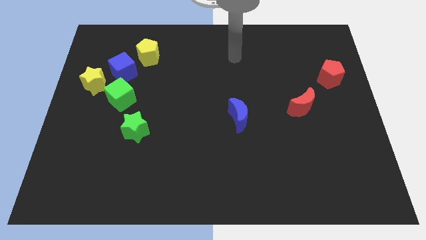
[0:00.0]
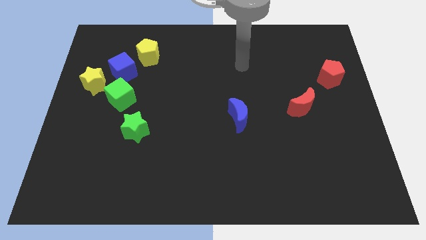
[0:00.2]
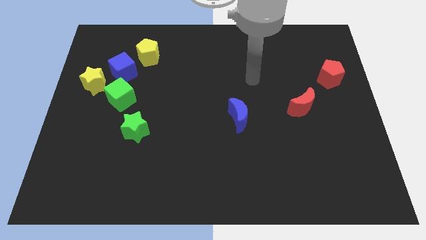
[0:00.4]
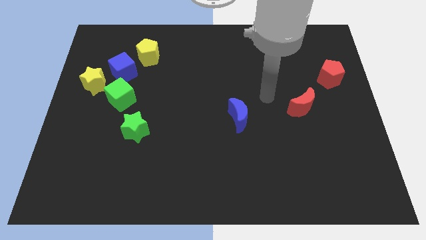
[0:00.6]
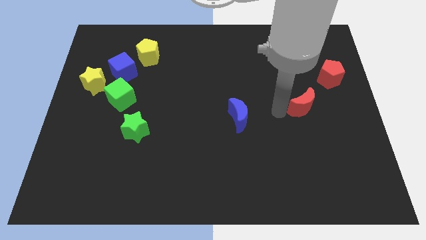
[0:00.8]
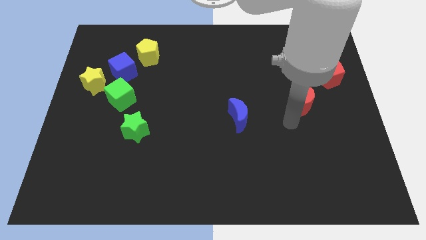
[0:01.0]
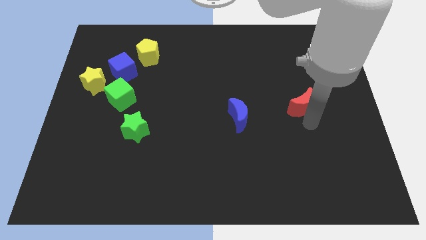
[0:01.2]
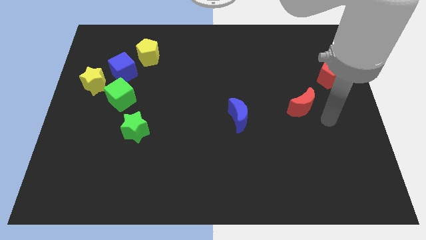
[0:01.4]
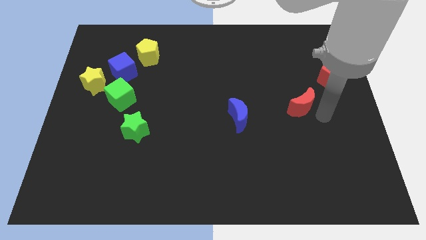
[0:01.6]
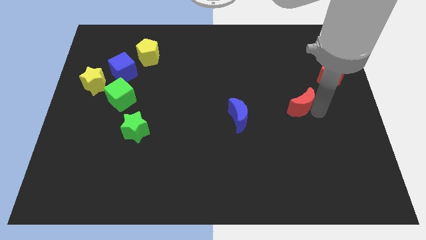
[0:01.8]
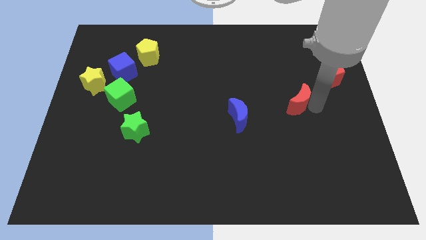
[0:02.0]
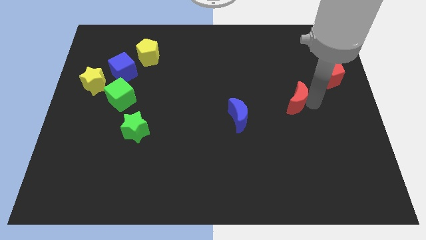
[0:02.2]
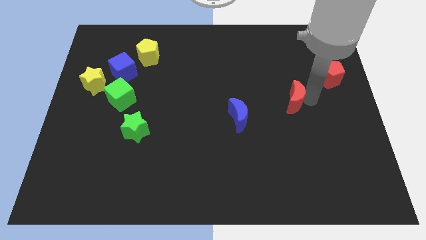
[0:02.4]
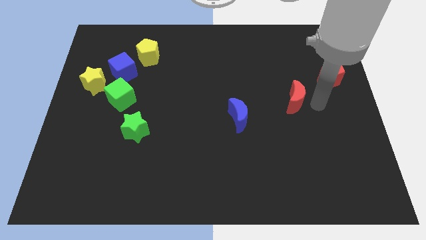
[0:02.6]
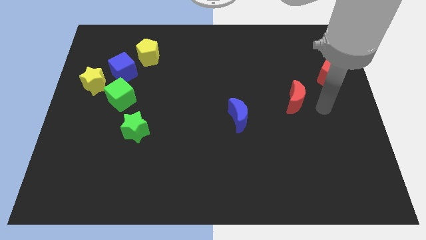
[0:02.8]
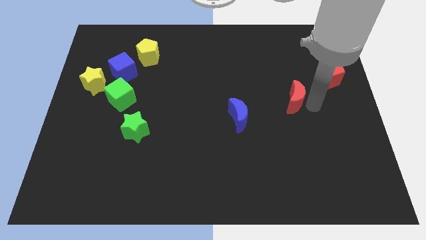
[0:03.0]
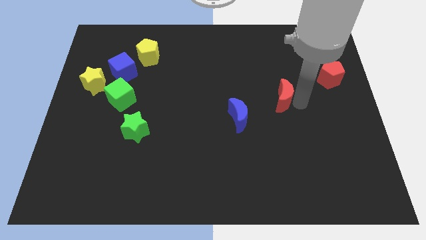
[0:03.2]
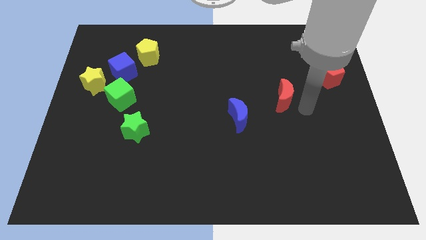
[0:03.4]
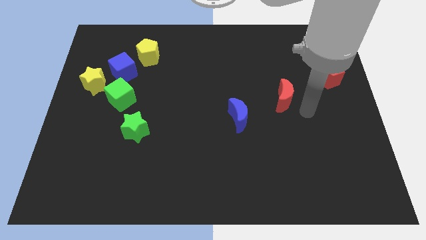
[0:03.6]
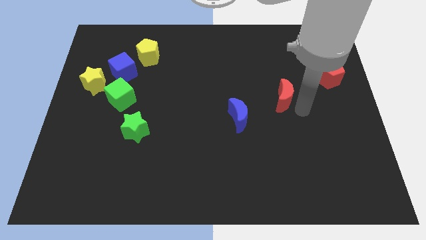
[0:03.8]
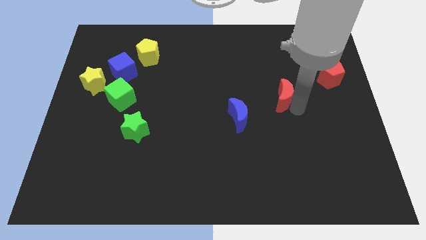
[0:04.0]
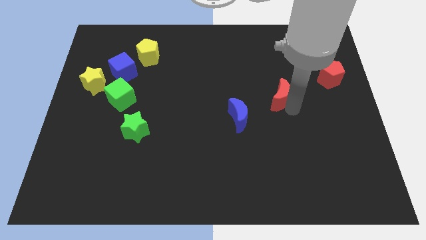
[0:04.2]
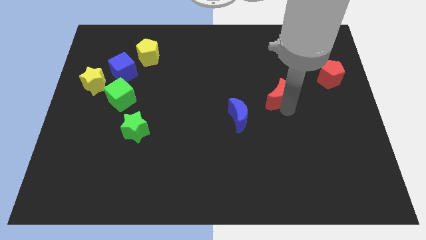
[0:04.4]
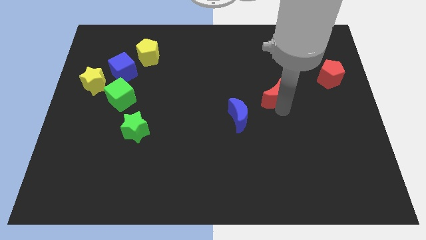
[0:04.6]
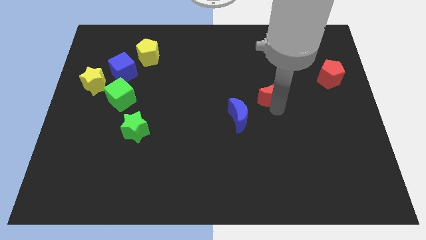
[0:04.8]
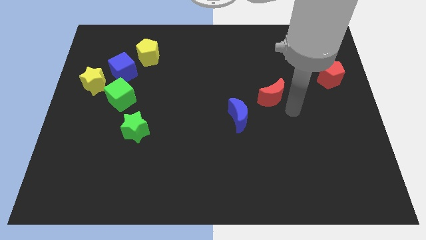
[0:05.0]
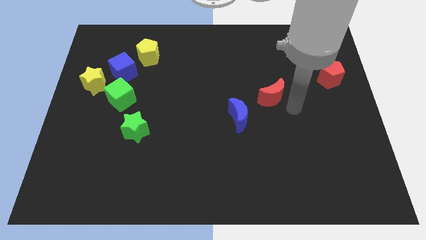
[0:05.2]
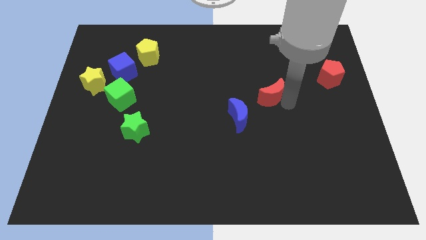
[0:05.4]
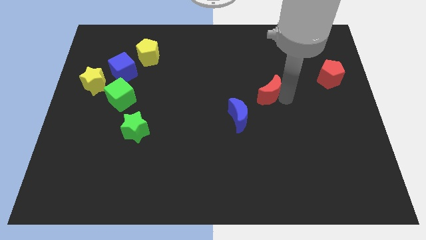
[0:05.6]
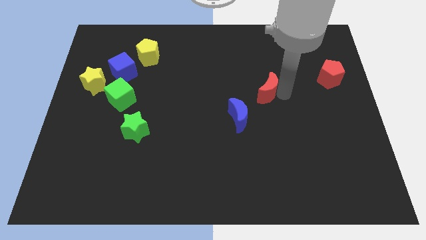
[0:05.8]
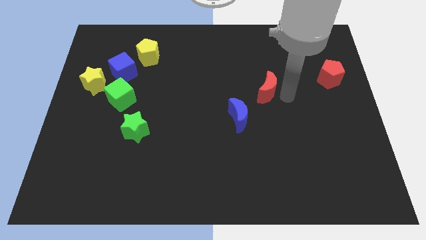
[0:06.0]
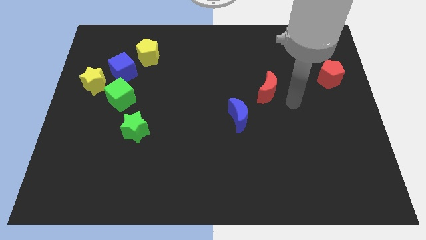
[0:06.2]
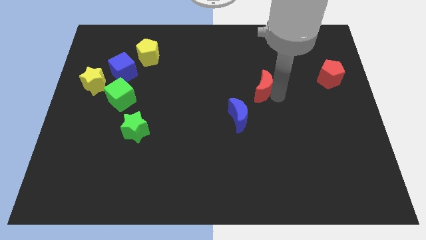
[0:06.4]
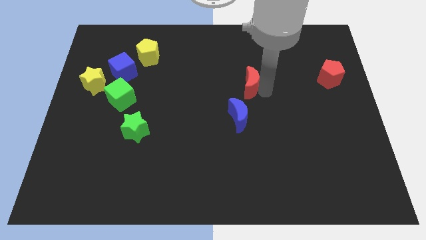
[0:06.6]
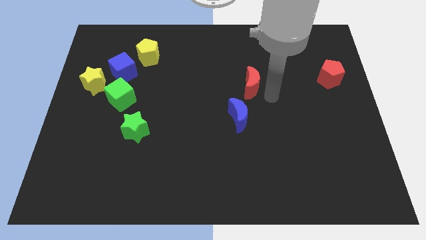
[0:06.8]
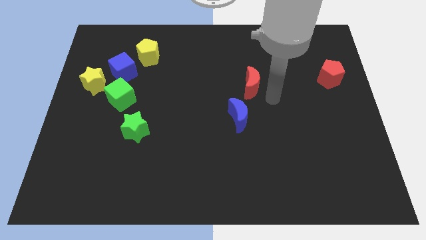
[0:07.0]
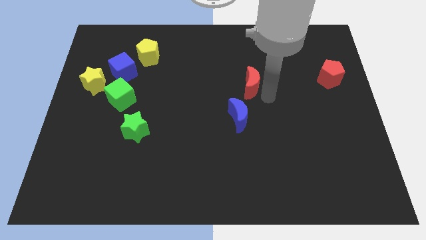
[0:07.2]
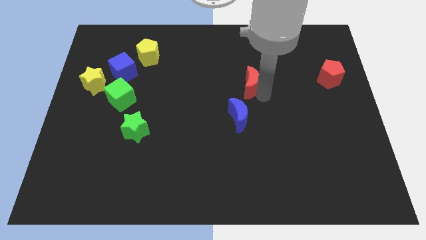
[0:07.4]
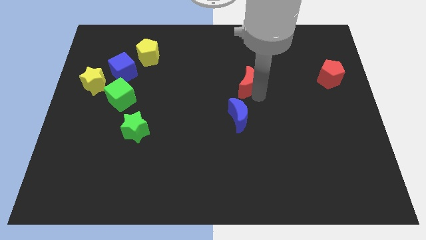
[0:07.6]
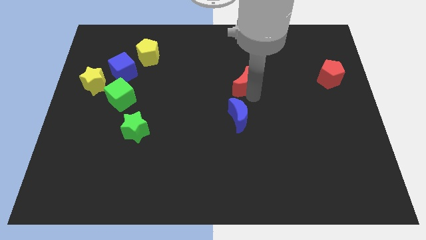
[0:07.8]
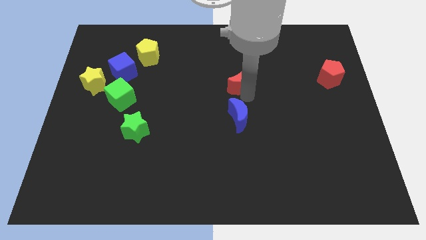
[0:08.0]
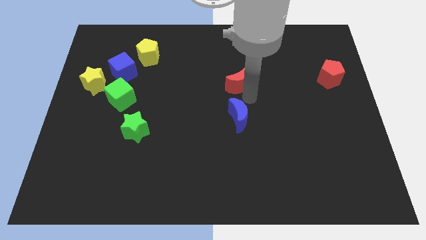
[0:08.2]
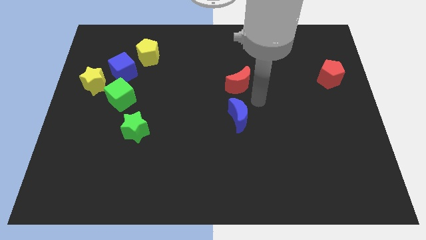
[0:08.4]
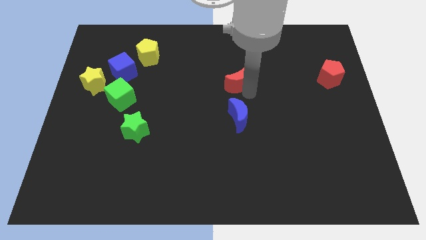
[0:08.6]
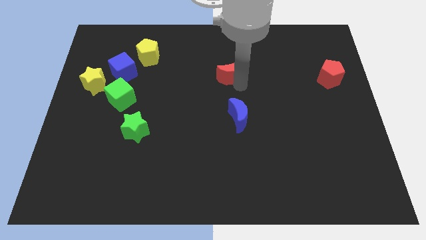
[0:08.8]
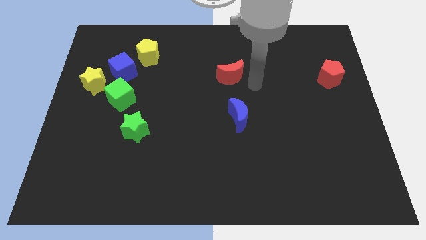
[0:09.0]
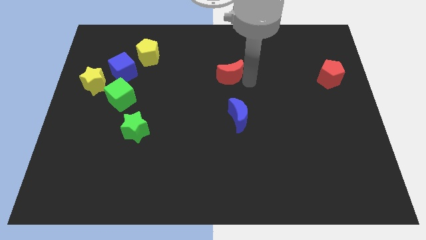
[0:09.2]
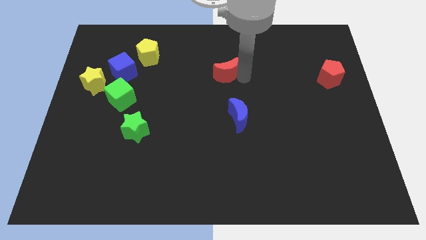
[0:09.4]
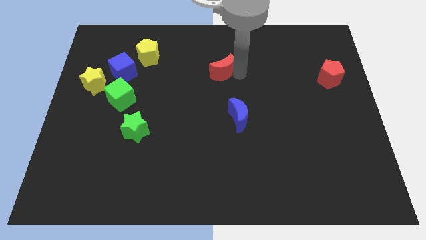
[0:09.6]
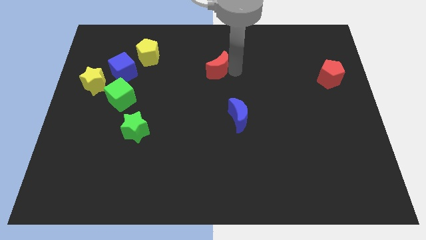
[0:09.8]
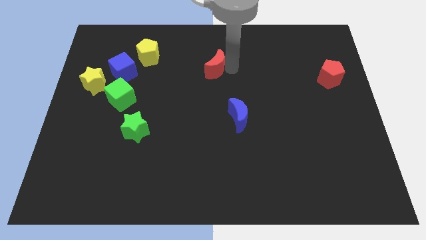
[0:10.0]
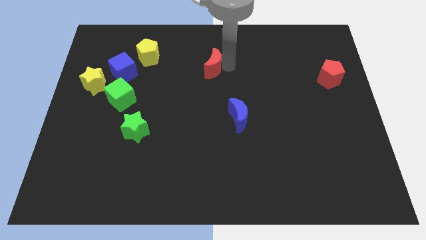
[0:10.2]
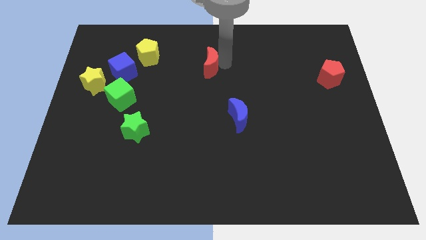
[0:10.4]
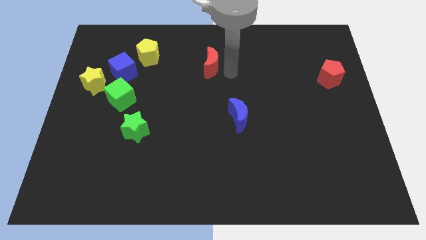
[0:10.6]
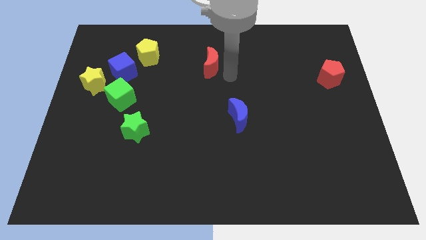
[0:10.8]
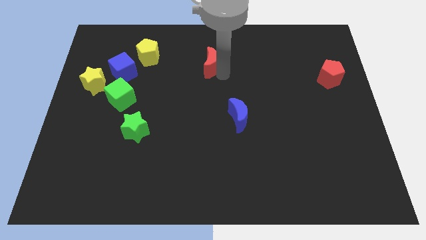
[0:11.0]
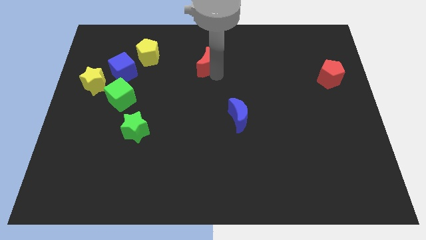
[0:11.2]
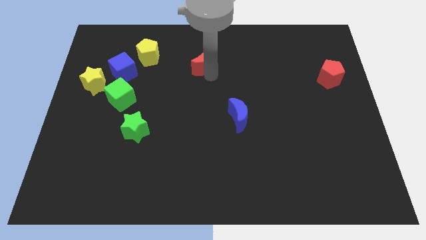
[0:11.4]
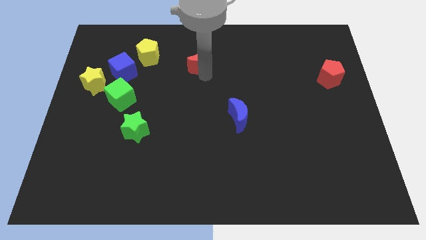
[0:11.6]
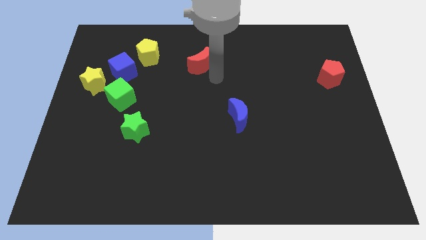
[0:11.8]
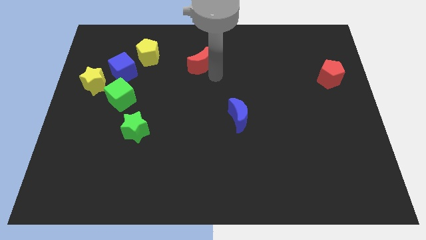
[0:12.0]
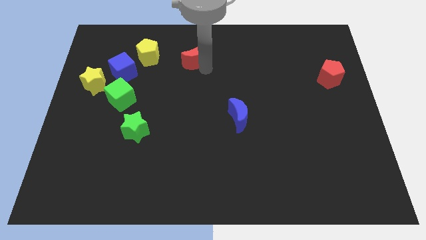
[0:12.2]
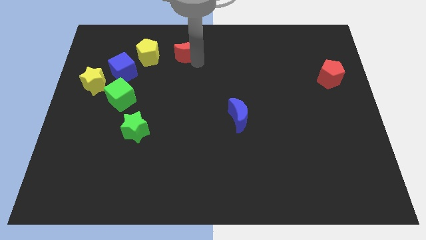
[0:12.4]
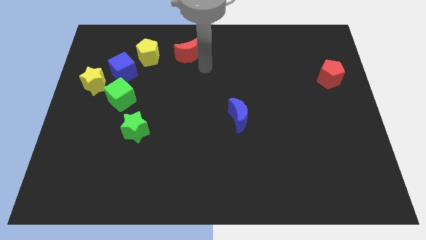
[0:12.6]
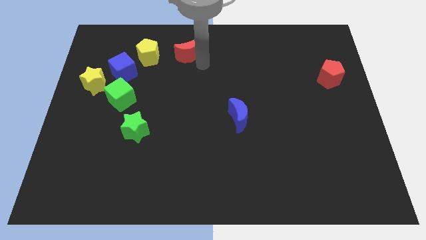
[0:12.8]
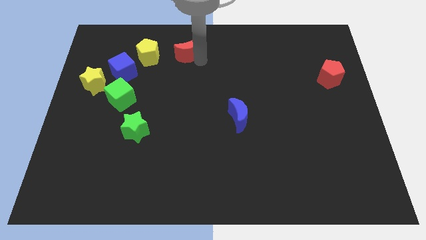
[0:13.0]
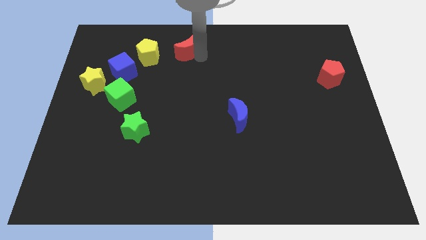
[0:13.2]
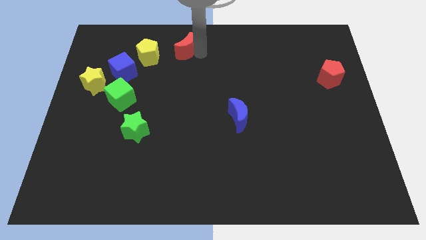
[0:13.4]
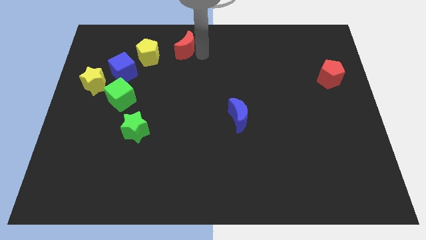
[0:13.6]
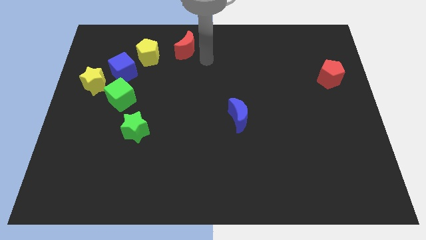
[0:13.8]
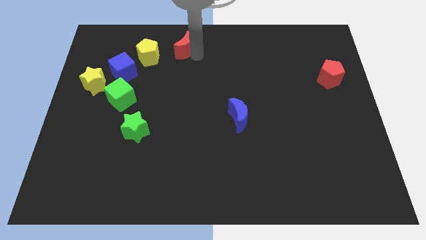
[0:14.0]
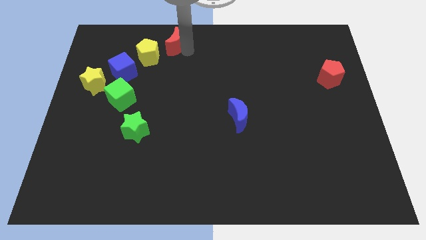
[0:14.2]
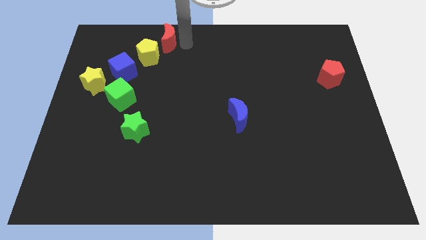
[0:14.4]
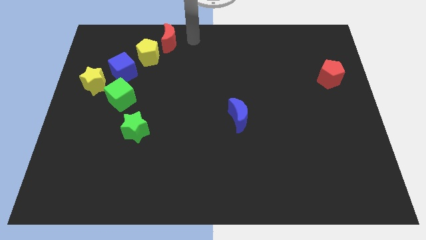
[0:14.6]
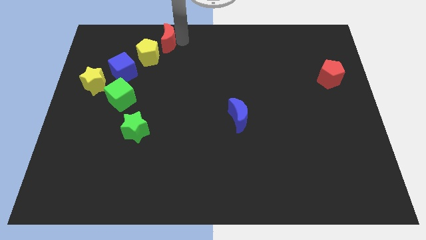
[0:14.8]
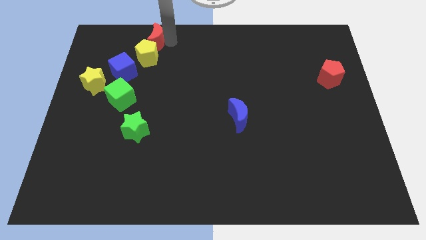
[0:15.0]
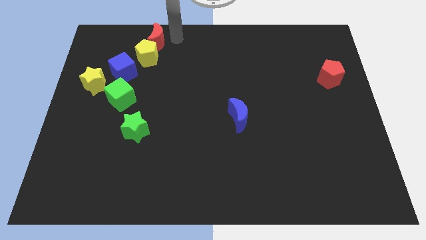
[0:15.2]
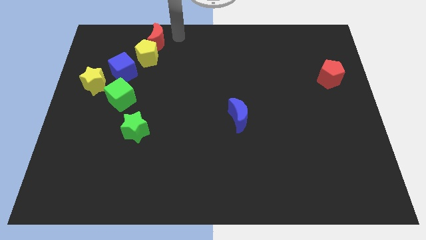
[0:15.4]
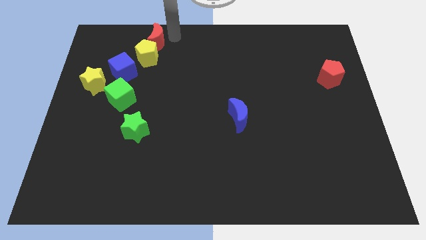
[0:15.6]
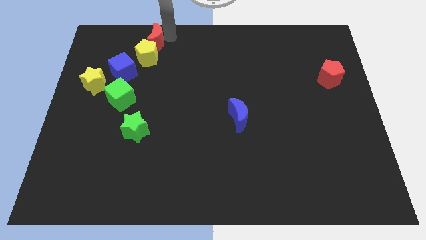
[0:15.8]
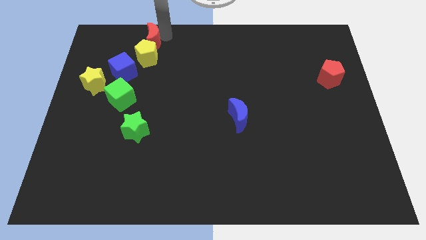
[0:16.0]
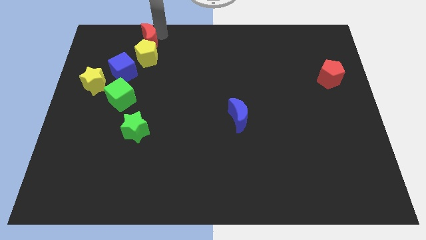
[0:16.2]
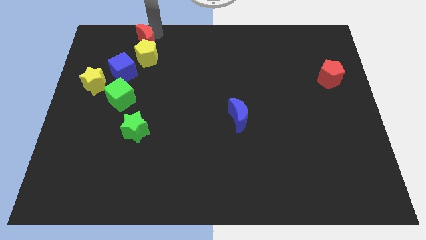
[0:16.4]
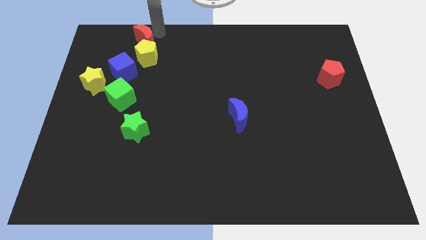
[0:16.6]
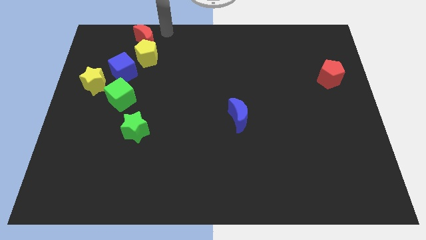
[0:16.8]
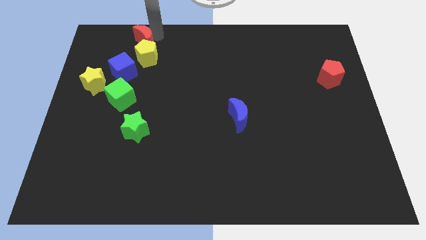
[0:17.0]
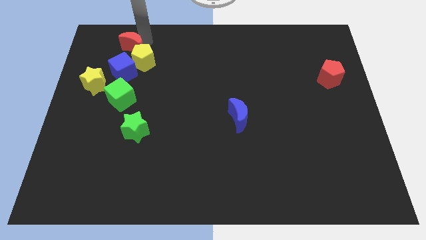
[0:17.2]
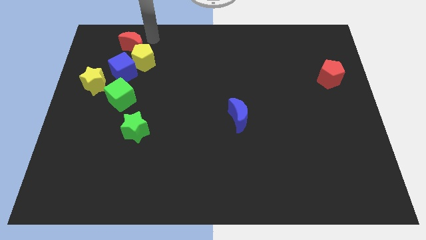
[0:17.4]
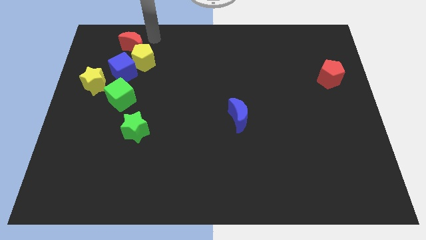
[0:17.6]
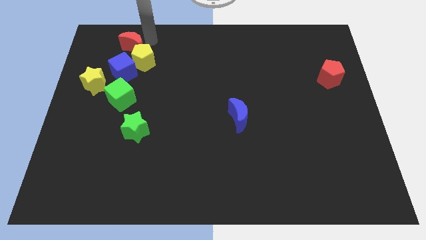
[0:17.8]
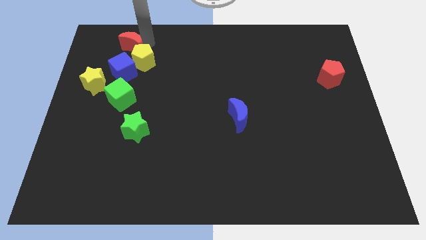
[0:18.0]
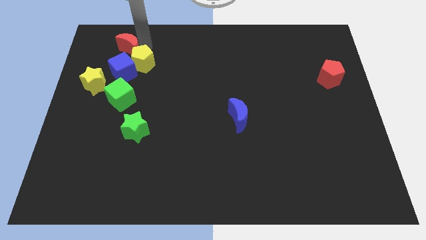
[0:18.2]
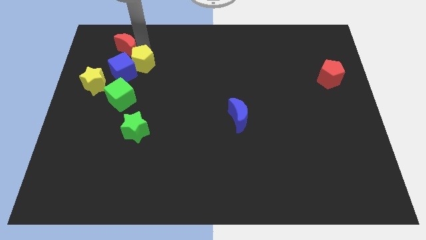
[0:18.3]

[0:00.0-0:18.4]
push the red moon to the left of the yellow pentagon
